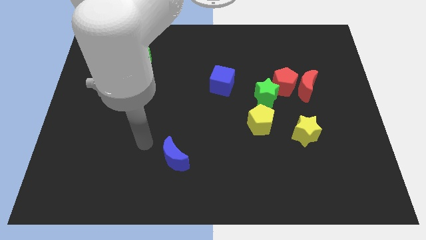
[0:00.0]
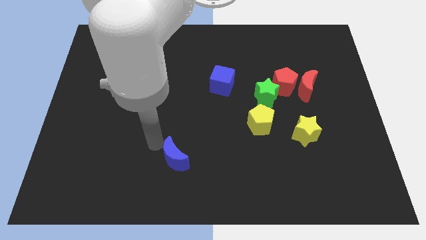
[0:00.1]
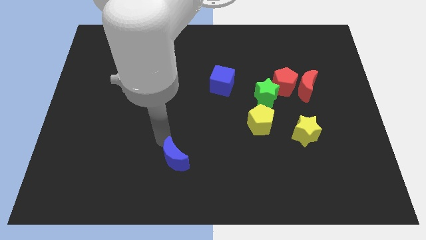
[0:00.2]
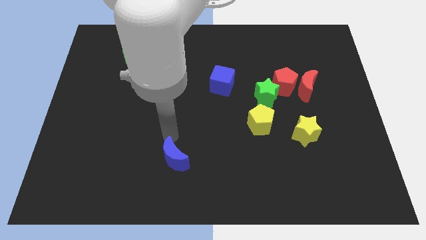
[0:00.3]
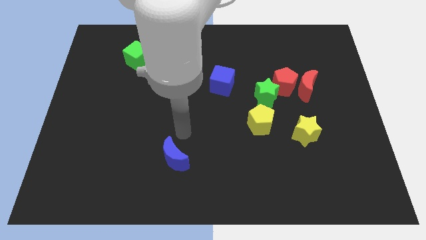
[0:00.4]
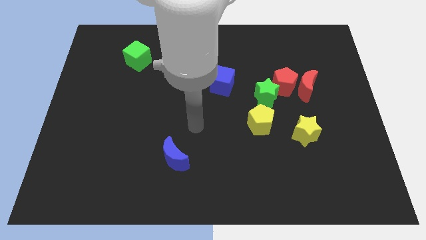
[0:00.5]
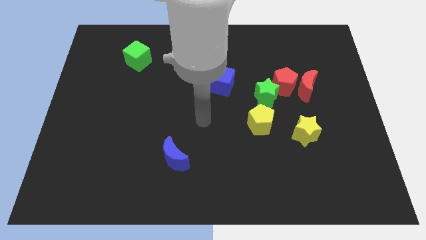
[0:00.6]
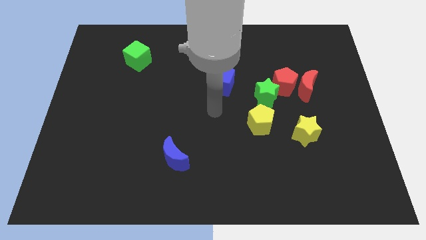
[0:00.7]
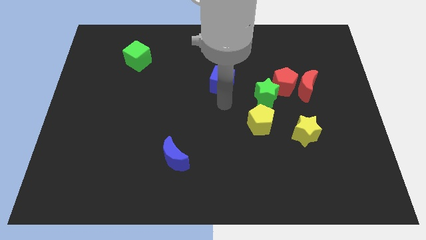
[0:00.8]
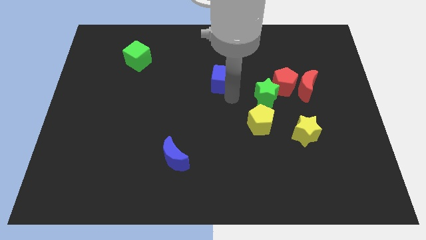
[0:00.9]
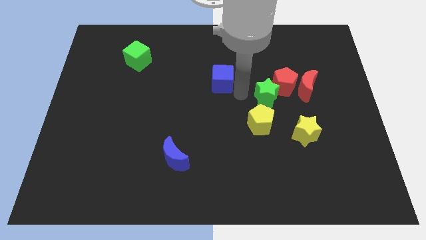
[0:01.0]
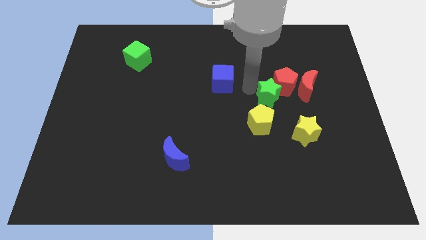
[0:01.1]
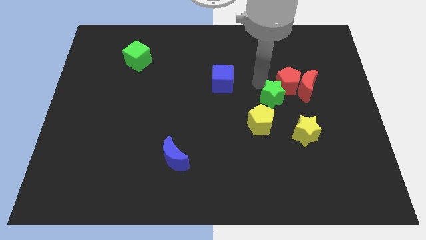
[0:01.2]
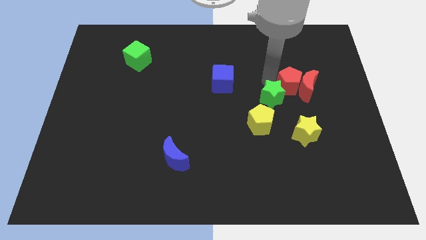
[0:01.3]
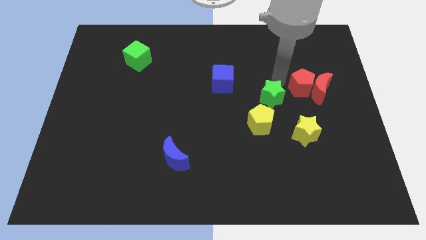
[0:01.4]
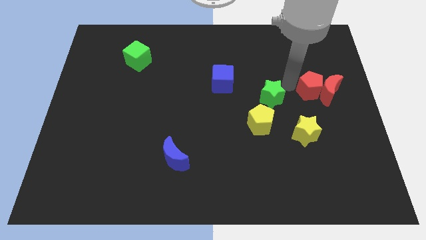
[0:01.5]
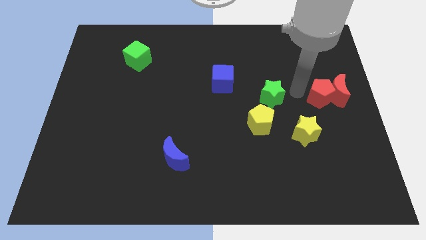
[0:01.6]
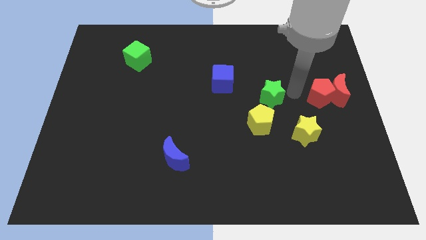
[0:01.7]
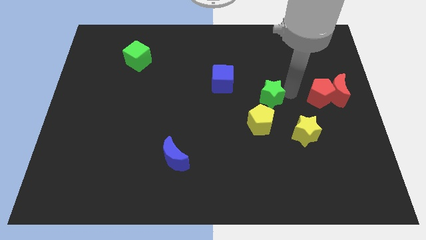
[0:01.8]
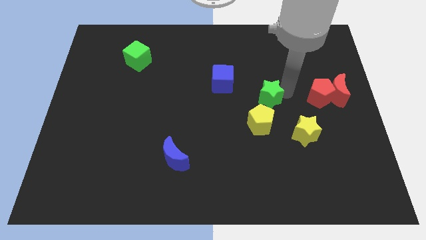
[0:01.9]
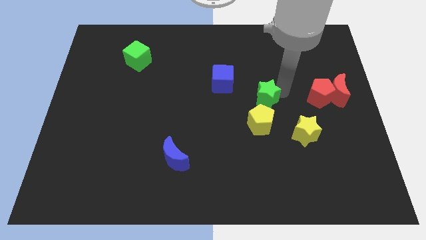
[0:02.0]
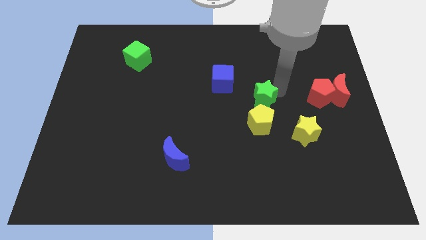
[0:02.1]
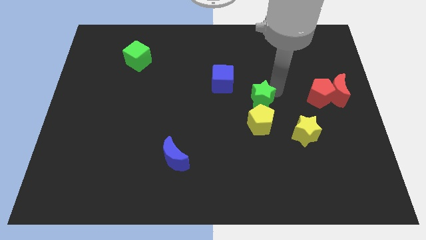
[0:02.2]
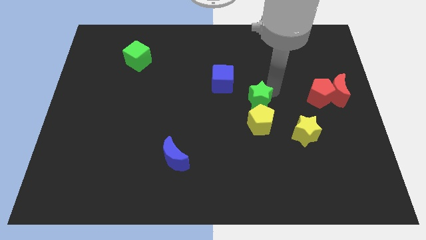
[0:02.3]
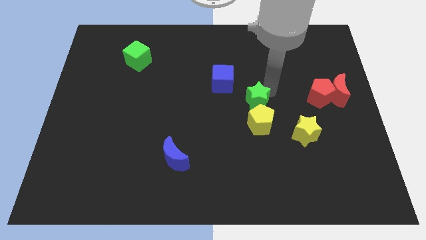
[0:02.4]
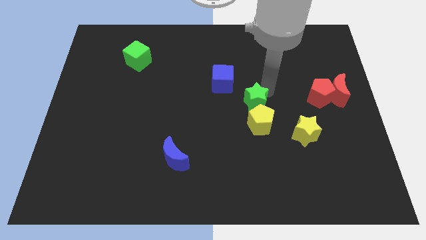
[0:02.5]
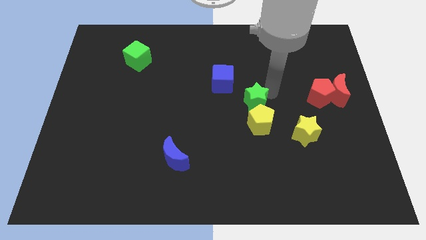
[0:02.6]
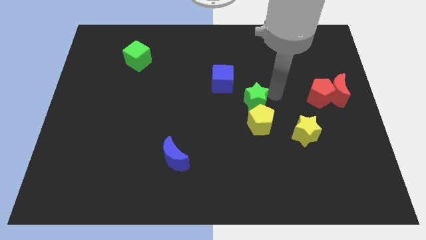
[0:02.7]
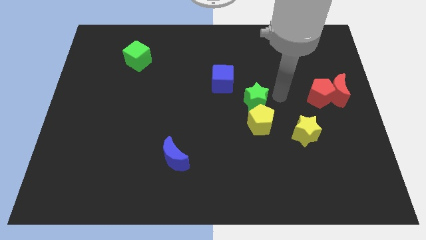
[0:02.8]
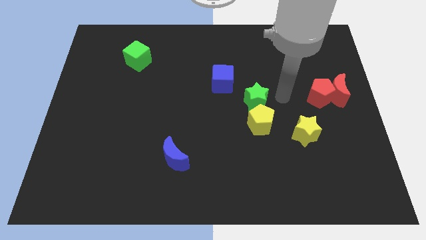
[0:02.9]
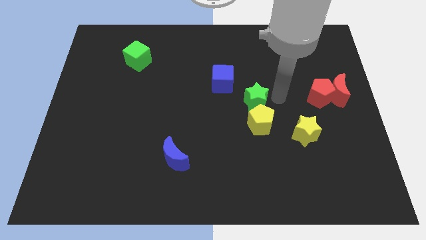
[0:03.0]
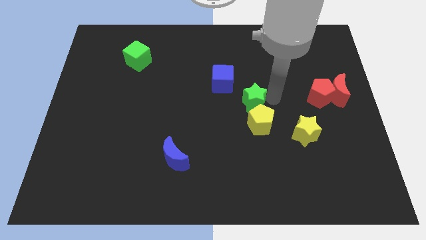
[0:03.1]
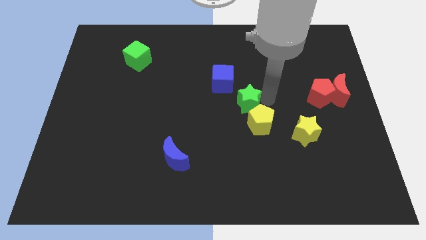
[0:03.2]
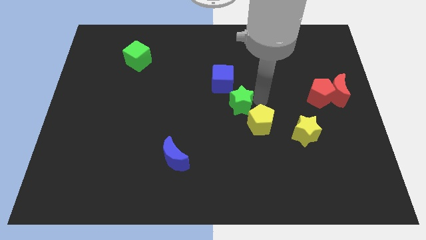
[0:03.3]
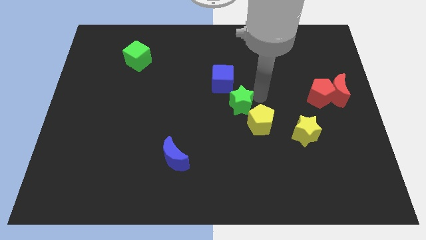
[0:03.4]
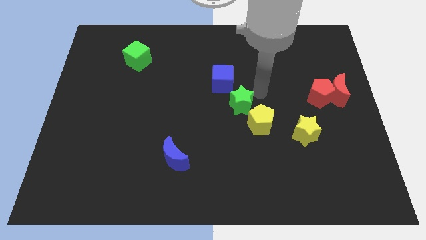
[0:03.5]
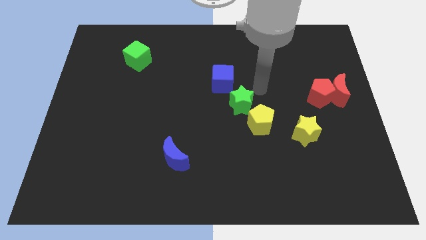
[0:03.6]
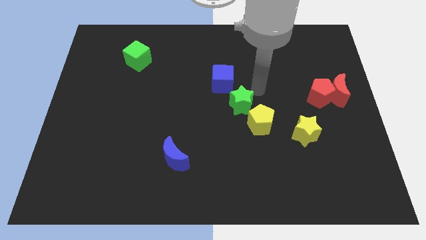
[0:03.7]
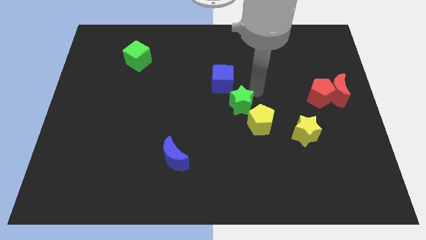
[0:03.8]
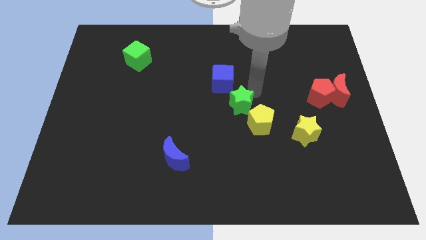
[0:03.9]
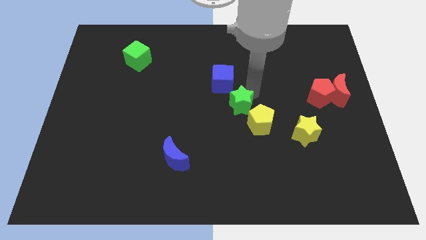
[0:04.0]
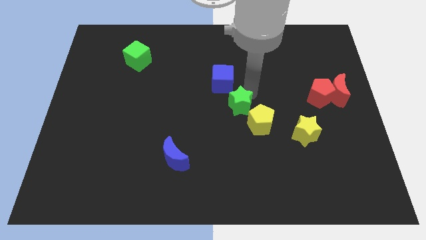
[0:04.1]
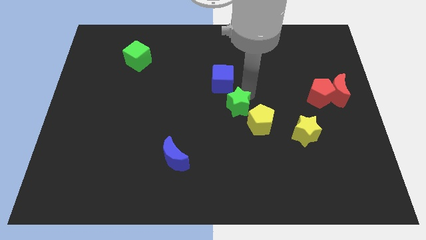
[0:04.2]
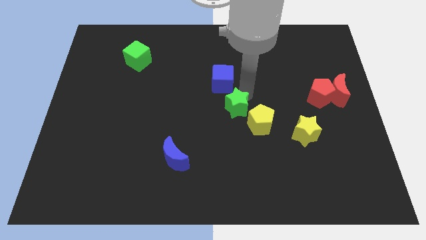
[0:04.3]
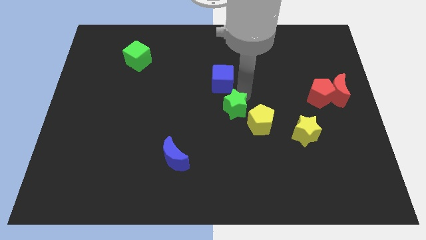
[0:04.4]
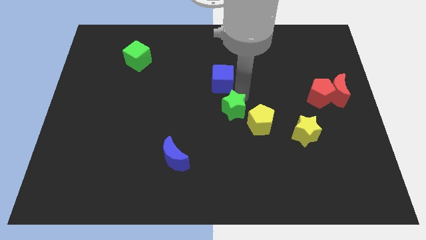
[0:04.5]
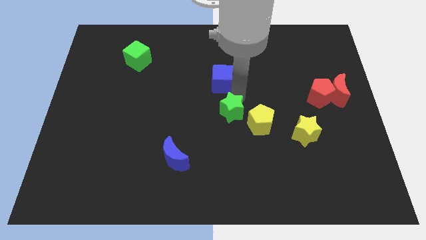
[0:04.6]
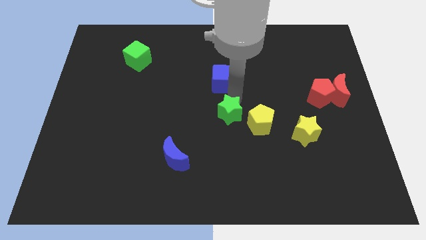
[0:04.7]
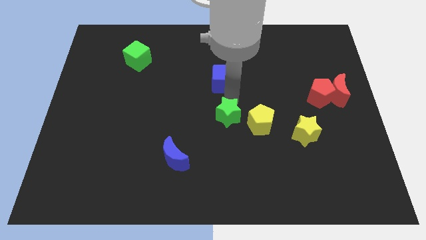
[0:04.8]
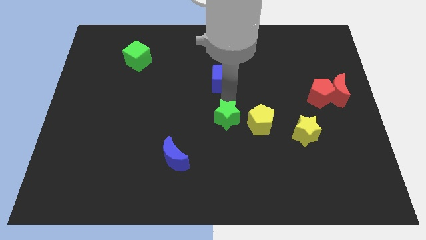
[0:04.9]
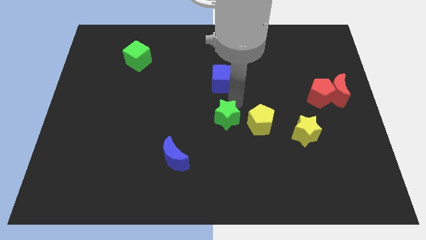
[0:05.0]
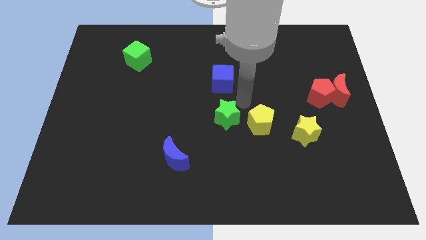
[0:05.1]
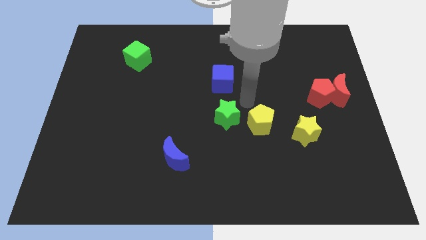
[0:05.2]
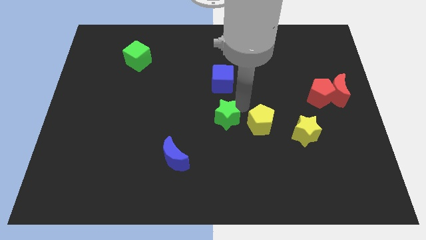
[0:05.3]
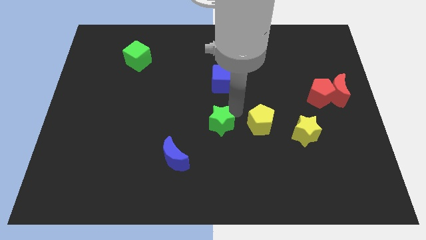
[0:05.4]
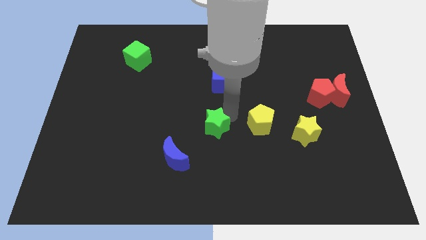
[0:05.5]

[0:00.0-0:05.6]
move the green star to the top right side of the blue moon
